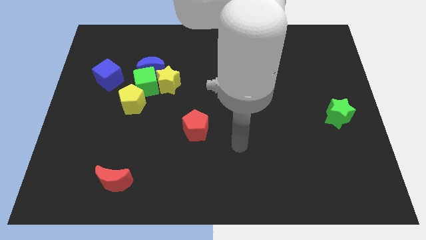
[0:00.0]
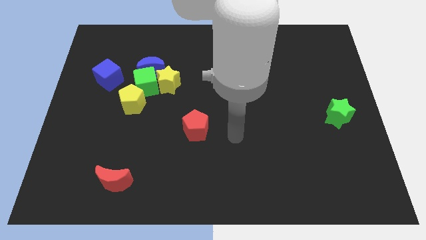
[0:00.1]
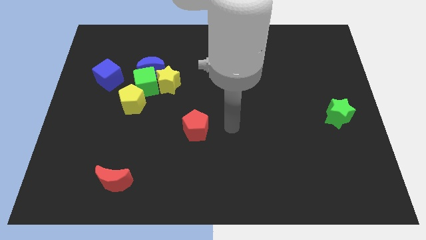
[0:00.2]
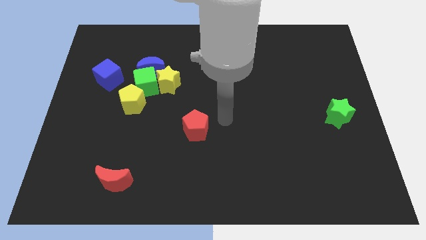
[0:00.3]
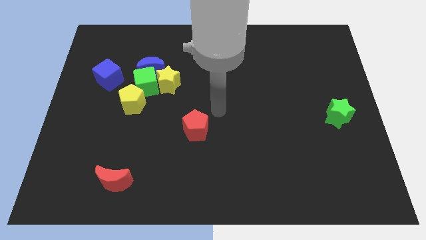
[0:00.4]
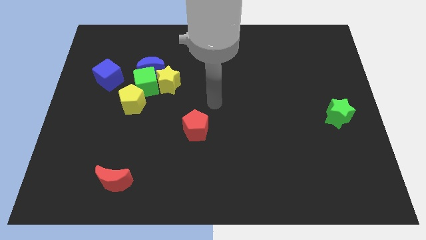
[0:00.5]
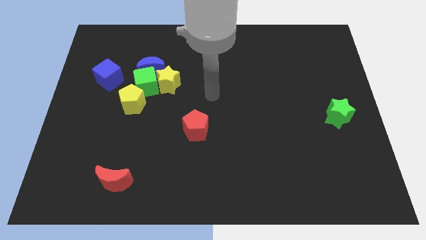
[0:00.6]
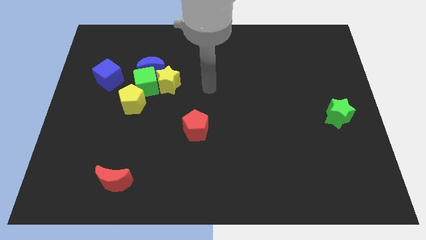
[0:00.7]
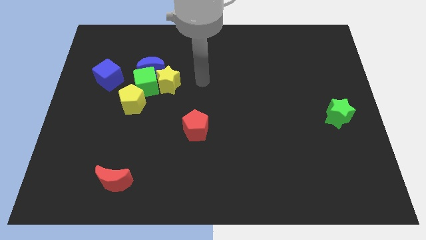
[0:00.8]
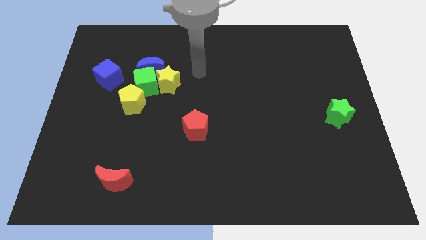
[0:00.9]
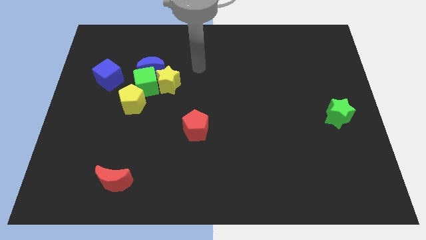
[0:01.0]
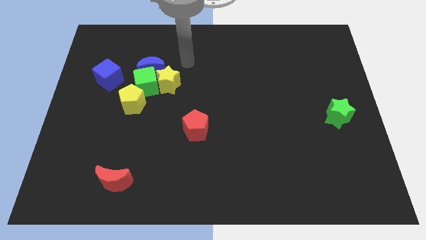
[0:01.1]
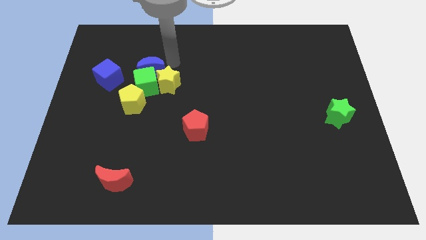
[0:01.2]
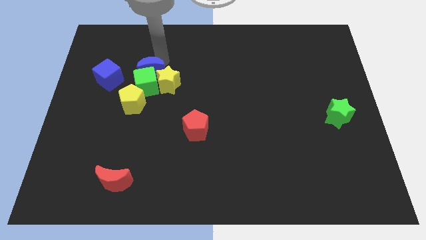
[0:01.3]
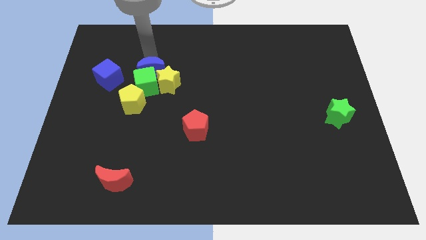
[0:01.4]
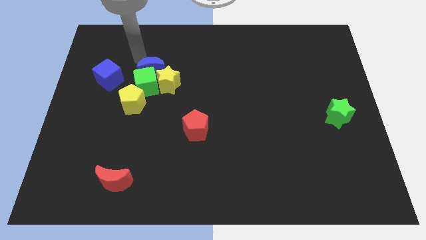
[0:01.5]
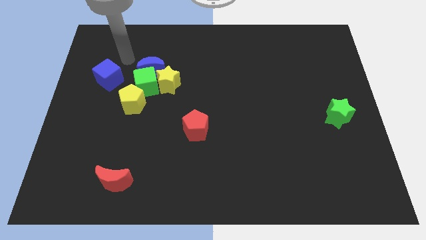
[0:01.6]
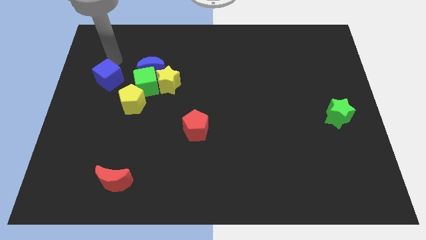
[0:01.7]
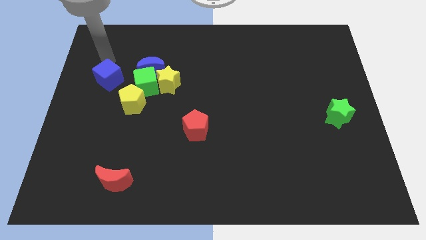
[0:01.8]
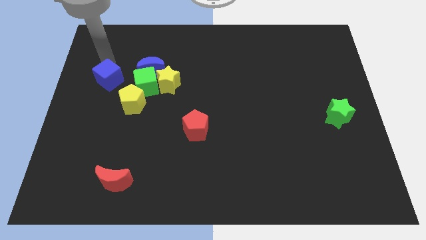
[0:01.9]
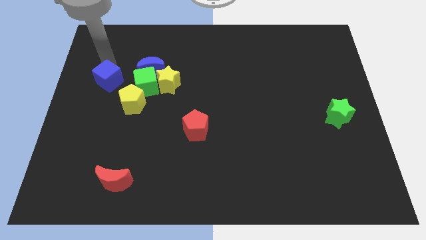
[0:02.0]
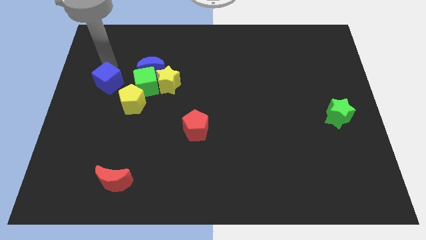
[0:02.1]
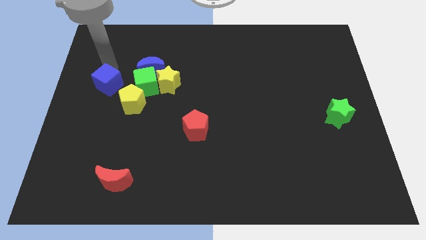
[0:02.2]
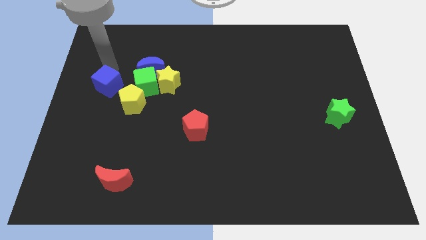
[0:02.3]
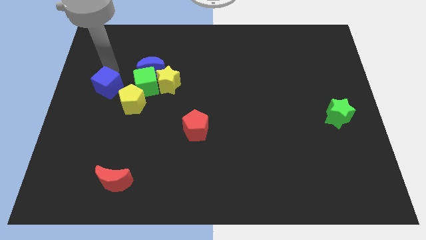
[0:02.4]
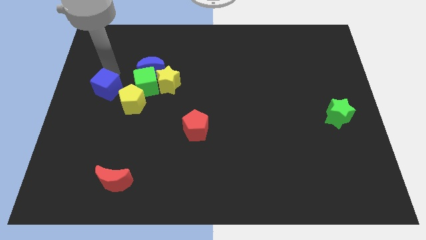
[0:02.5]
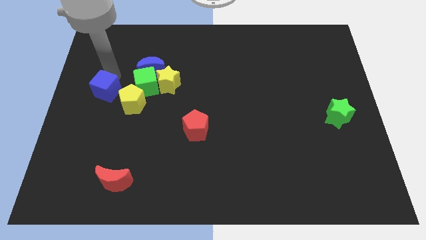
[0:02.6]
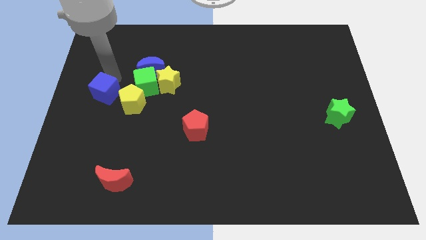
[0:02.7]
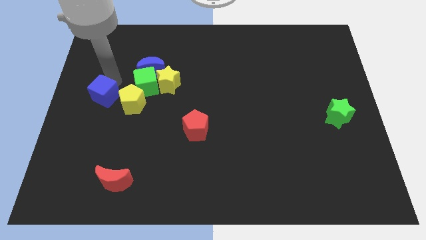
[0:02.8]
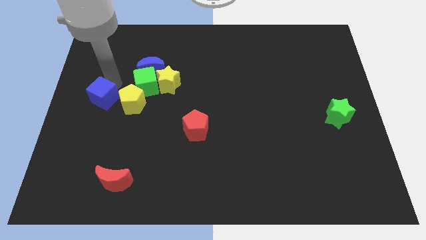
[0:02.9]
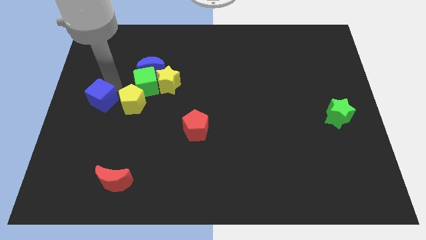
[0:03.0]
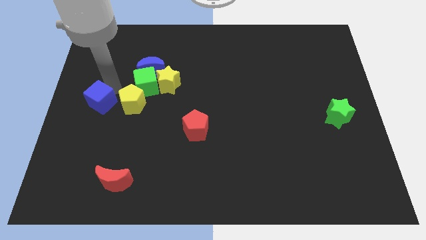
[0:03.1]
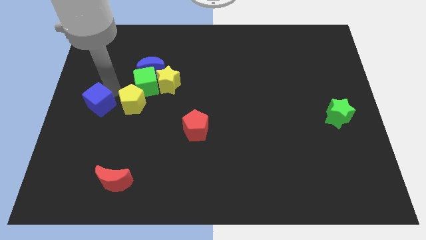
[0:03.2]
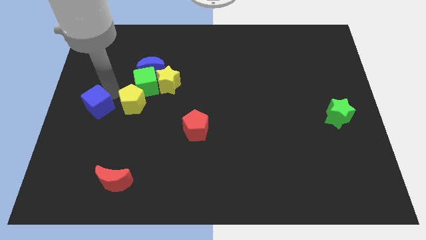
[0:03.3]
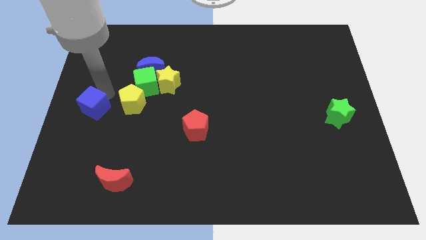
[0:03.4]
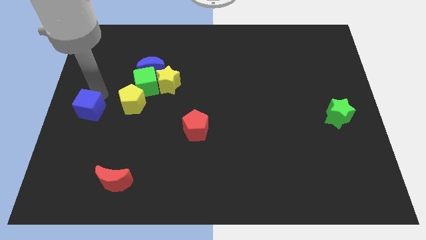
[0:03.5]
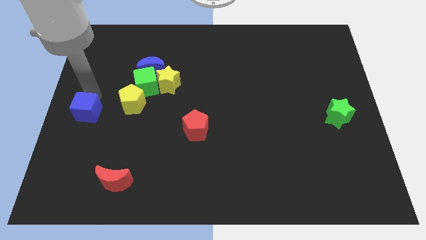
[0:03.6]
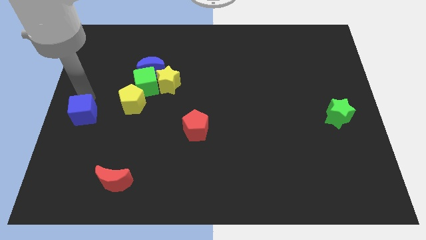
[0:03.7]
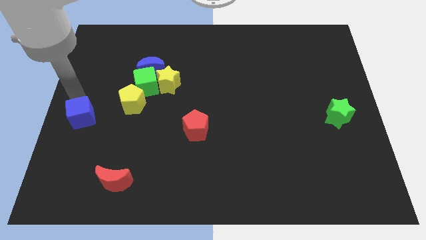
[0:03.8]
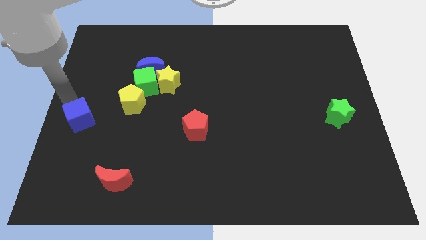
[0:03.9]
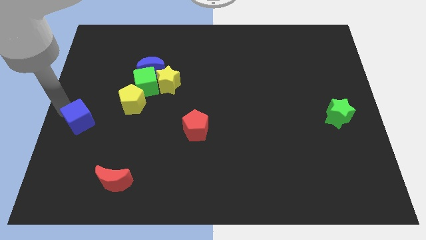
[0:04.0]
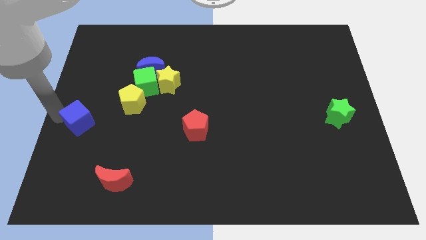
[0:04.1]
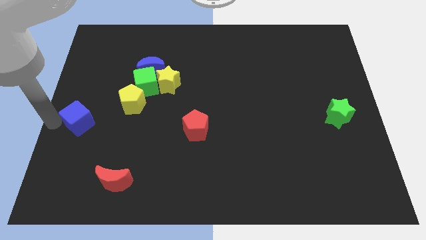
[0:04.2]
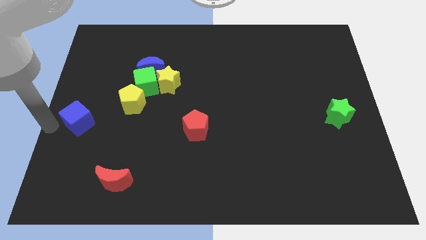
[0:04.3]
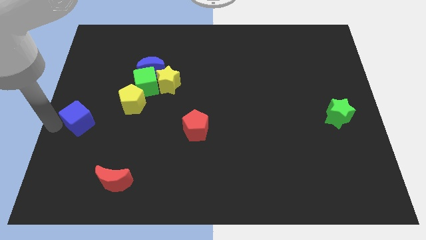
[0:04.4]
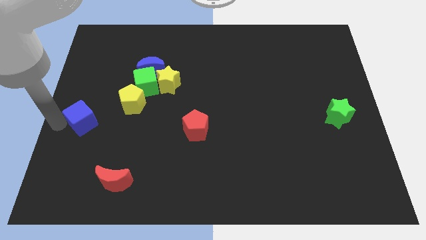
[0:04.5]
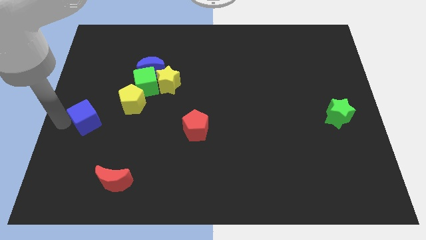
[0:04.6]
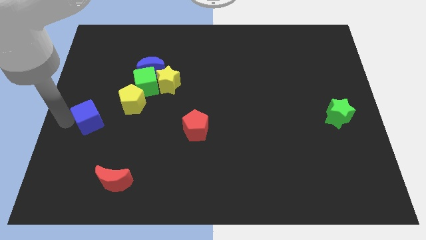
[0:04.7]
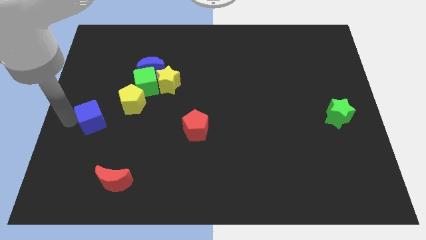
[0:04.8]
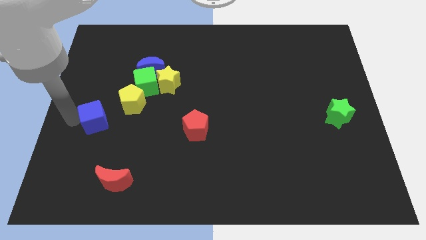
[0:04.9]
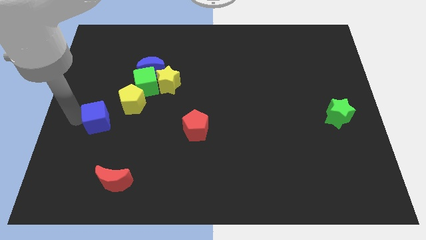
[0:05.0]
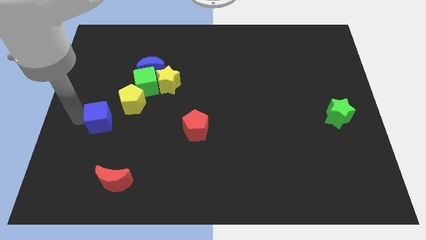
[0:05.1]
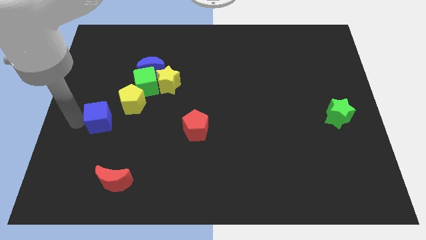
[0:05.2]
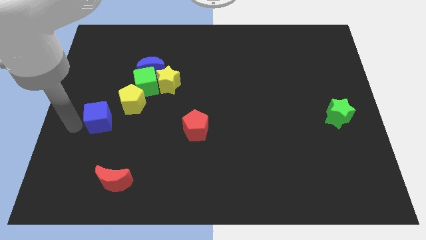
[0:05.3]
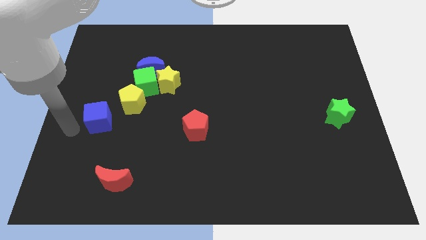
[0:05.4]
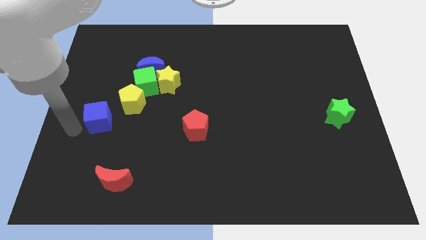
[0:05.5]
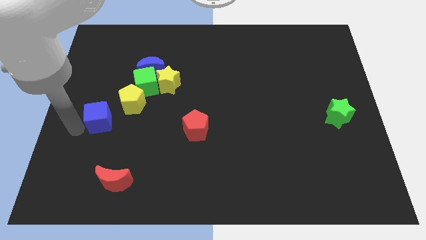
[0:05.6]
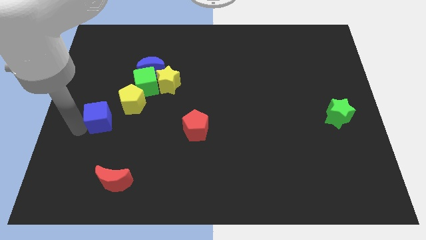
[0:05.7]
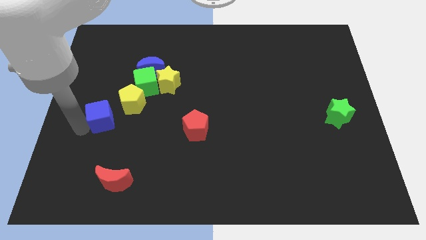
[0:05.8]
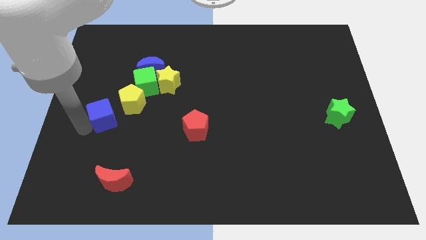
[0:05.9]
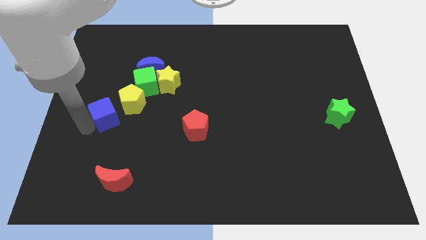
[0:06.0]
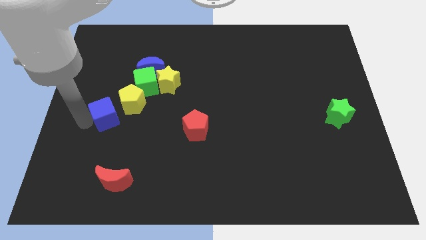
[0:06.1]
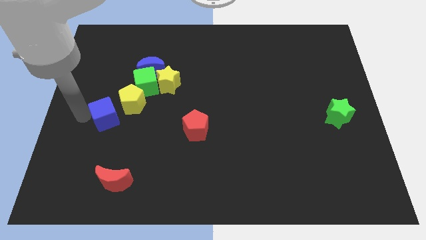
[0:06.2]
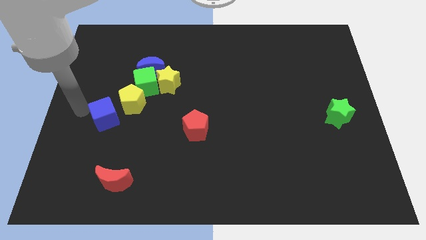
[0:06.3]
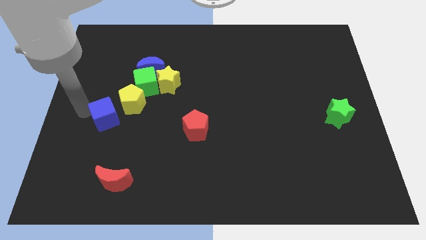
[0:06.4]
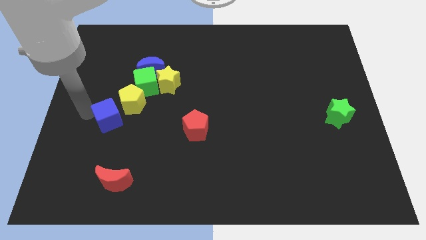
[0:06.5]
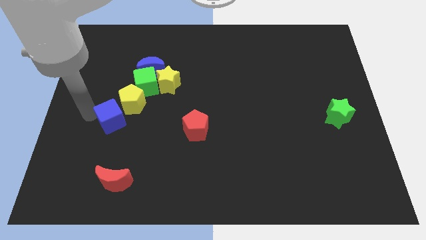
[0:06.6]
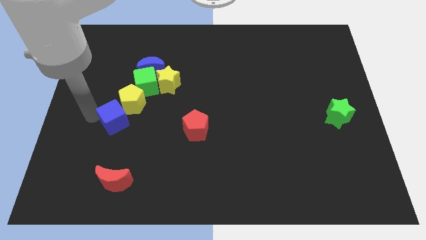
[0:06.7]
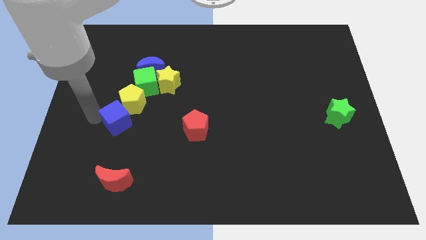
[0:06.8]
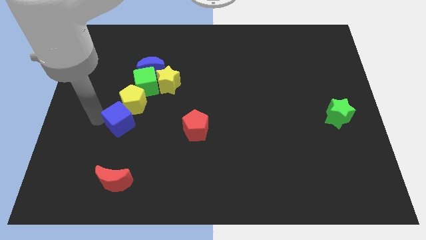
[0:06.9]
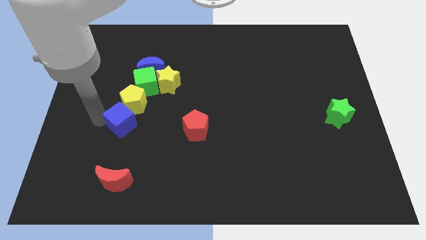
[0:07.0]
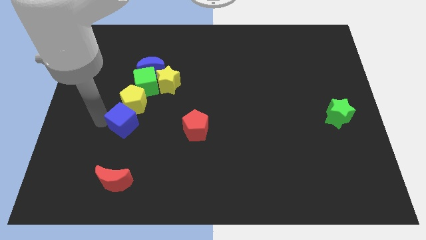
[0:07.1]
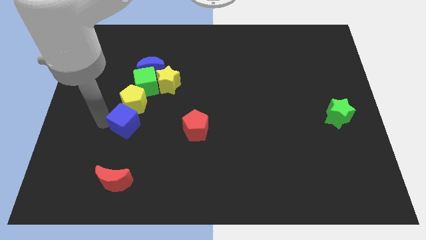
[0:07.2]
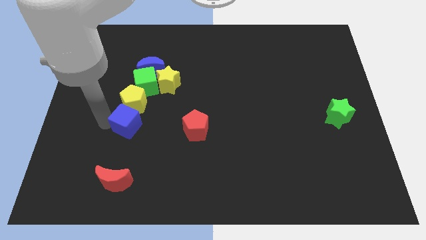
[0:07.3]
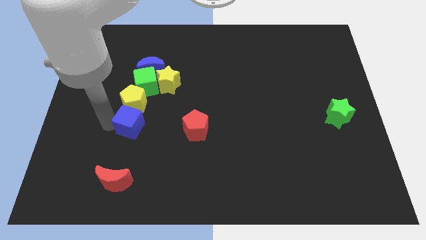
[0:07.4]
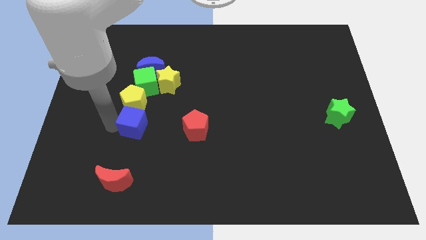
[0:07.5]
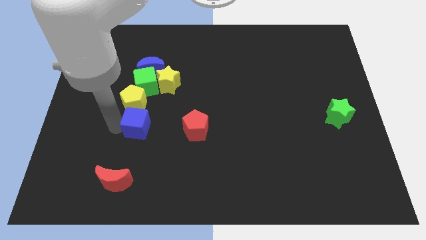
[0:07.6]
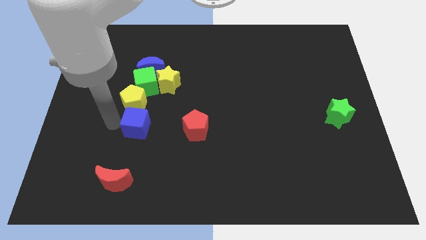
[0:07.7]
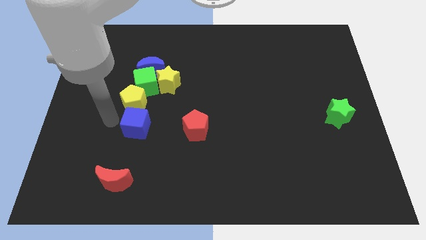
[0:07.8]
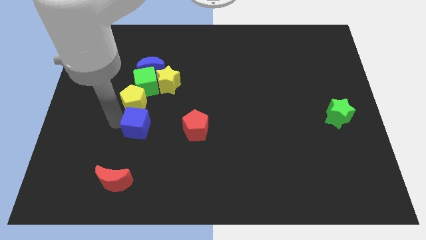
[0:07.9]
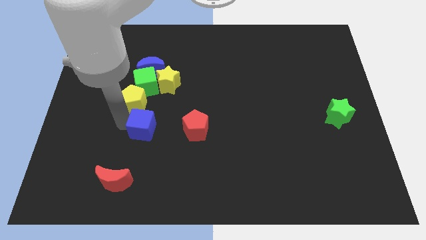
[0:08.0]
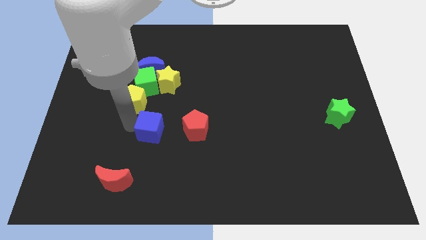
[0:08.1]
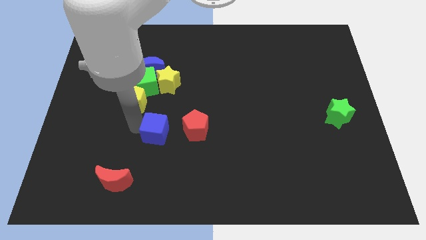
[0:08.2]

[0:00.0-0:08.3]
push the blue cube downwards and then right
